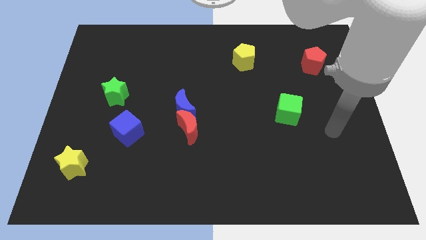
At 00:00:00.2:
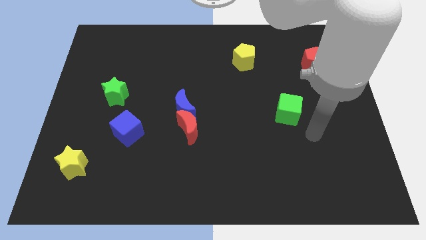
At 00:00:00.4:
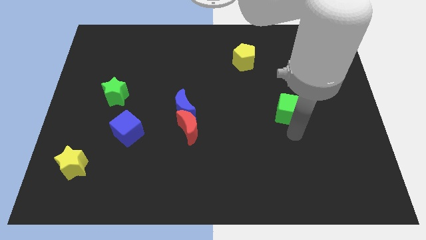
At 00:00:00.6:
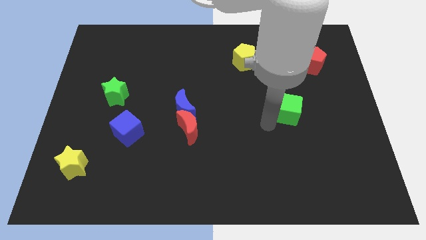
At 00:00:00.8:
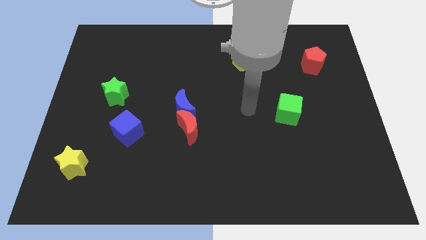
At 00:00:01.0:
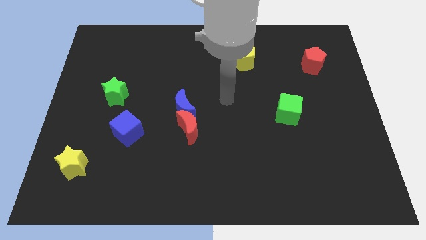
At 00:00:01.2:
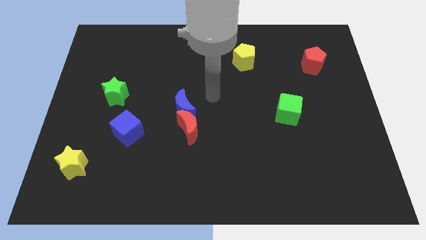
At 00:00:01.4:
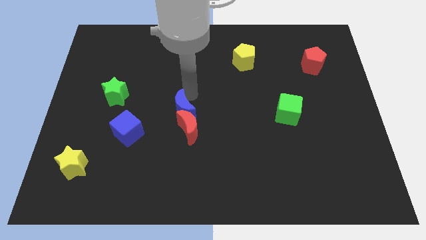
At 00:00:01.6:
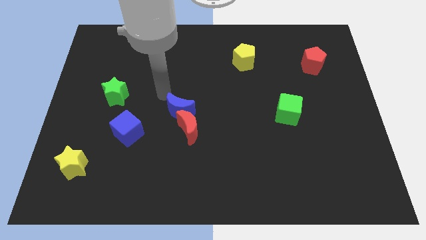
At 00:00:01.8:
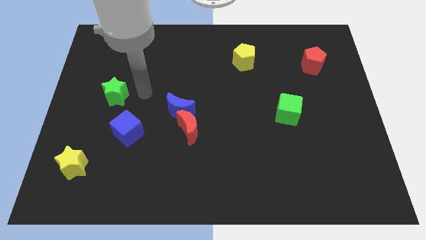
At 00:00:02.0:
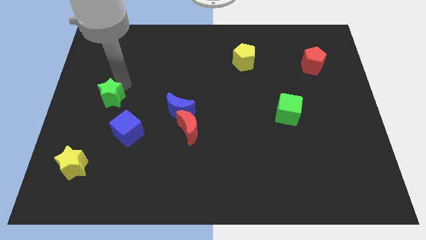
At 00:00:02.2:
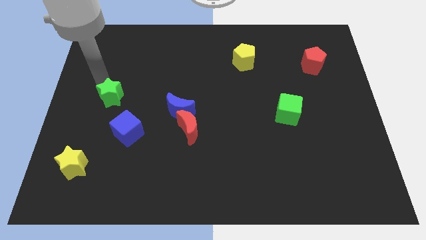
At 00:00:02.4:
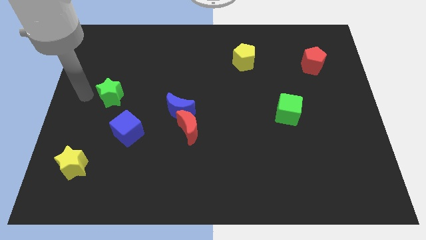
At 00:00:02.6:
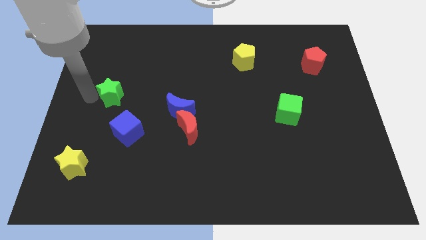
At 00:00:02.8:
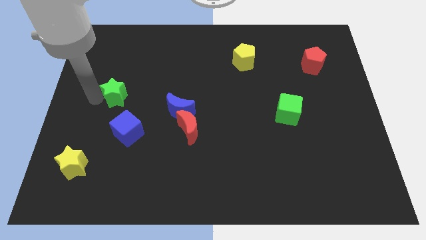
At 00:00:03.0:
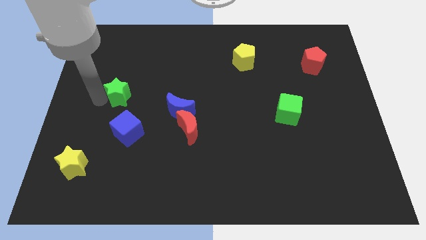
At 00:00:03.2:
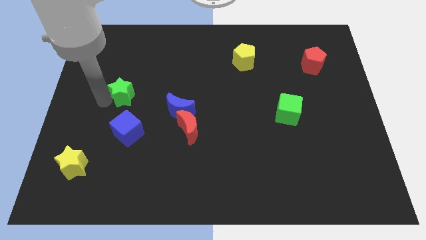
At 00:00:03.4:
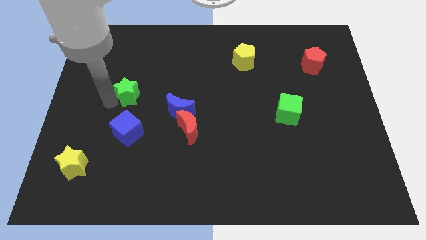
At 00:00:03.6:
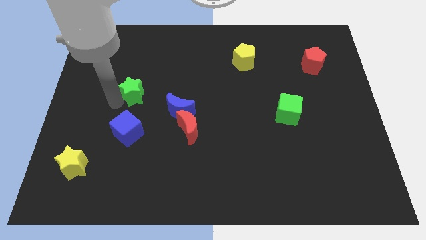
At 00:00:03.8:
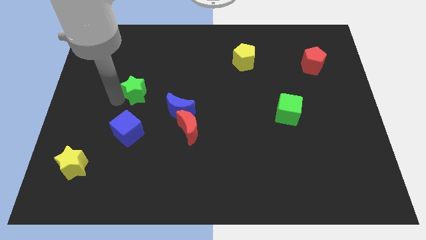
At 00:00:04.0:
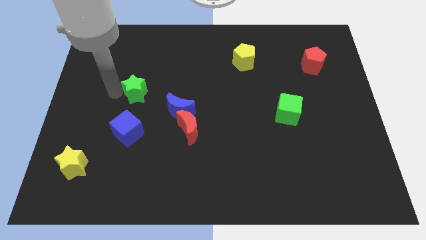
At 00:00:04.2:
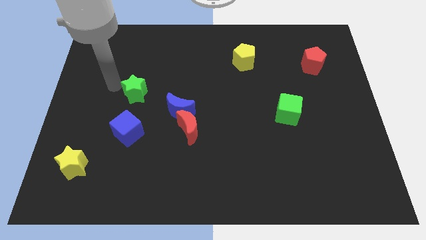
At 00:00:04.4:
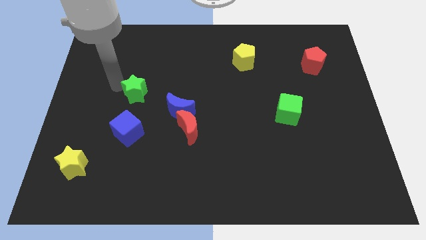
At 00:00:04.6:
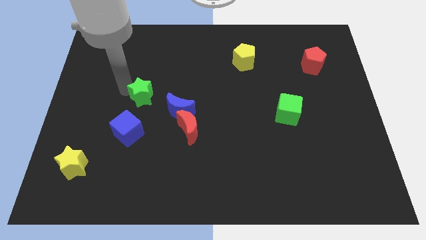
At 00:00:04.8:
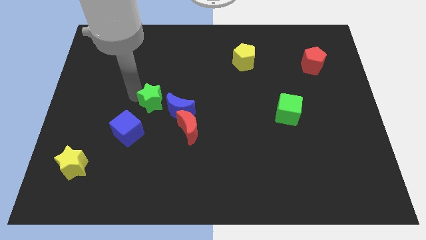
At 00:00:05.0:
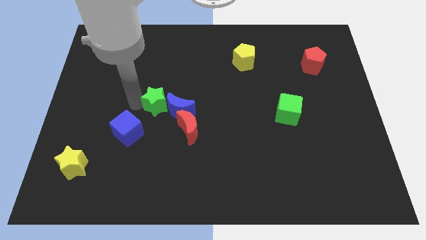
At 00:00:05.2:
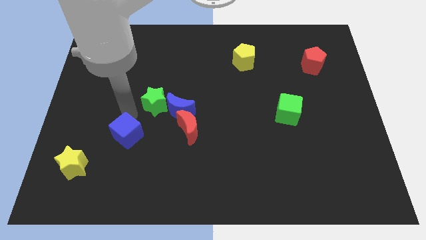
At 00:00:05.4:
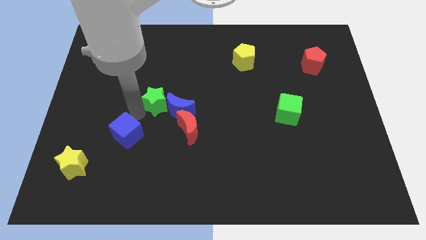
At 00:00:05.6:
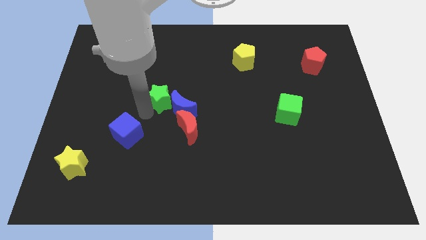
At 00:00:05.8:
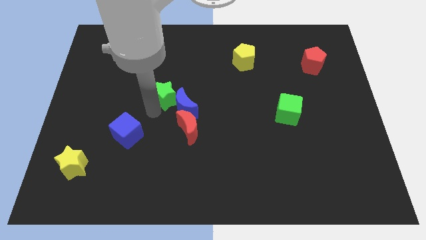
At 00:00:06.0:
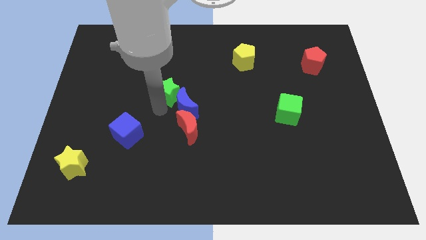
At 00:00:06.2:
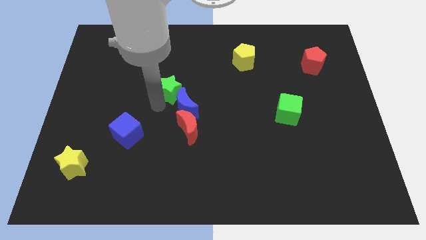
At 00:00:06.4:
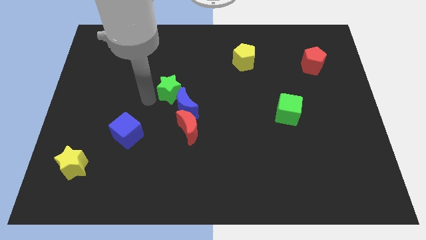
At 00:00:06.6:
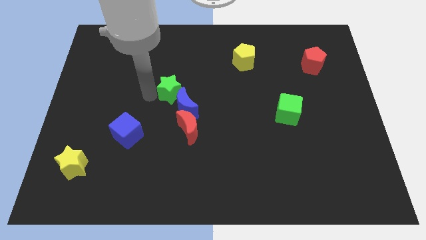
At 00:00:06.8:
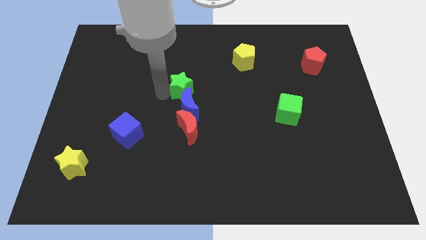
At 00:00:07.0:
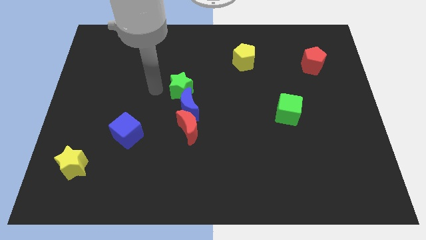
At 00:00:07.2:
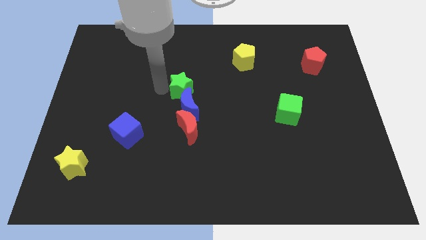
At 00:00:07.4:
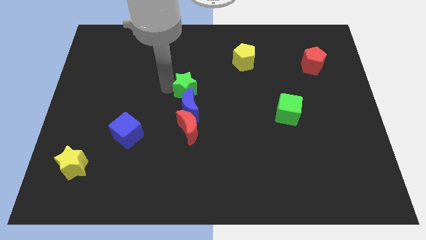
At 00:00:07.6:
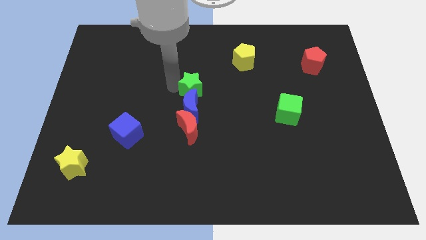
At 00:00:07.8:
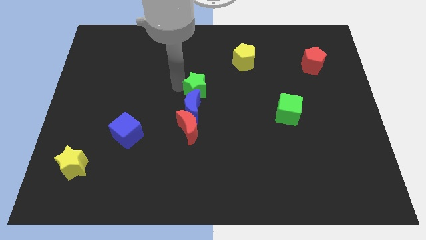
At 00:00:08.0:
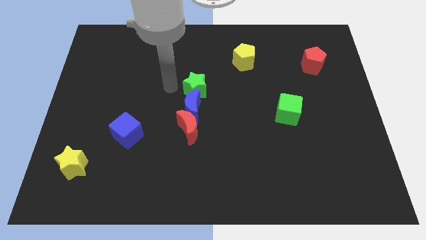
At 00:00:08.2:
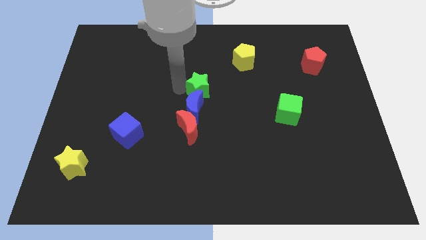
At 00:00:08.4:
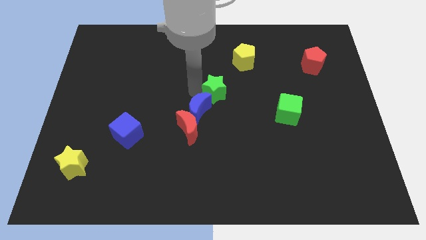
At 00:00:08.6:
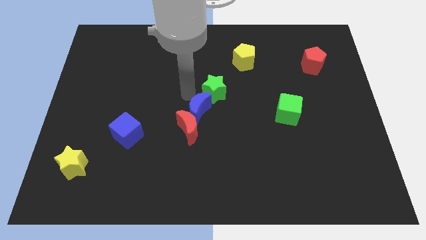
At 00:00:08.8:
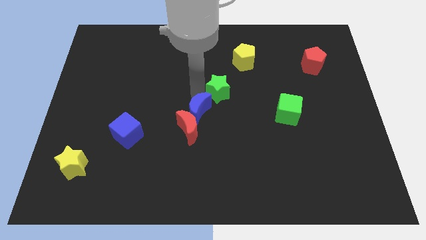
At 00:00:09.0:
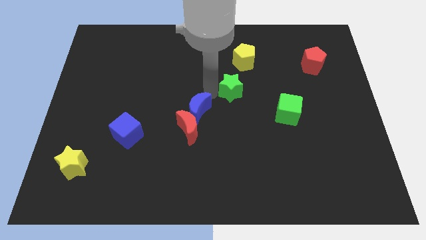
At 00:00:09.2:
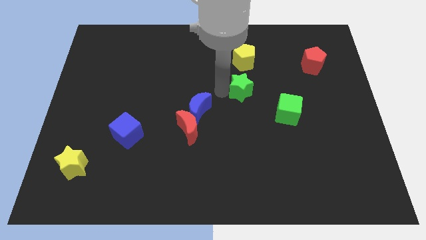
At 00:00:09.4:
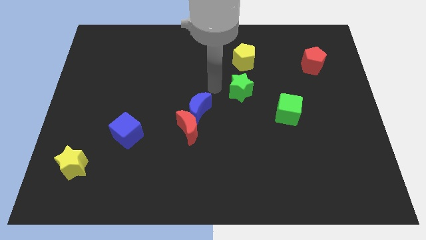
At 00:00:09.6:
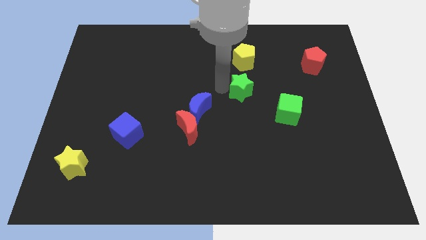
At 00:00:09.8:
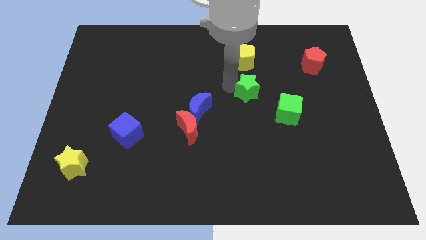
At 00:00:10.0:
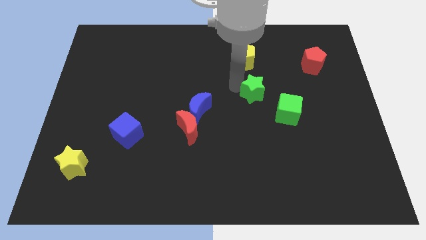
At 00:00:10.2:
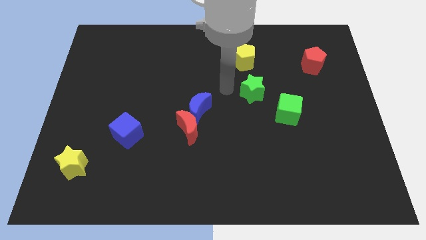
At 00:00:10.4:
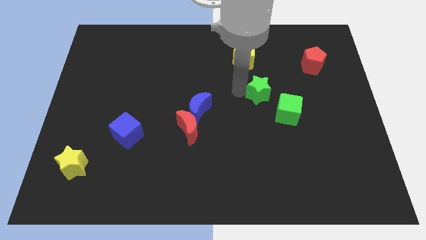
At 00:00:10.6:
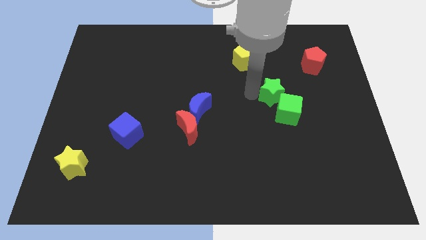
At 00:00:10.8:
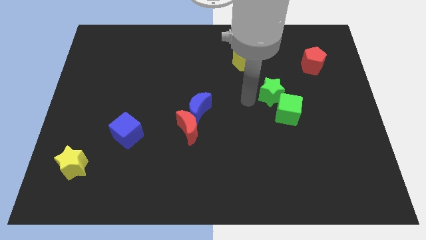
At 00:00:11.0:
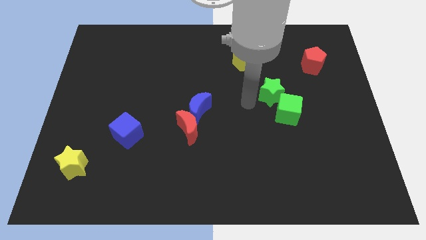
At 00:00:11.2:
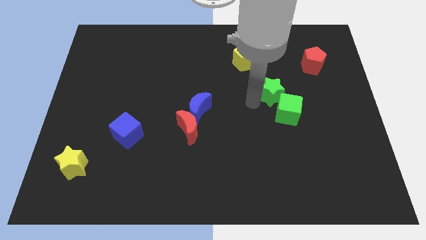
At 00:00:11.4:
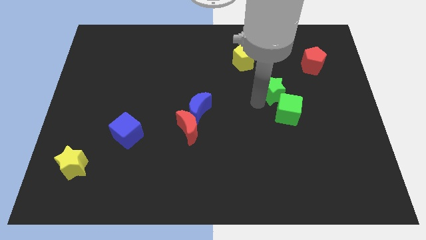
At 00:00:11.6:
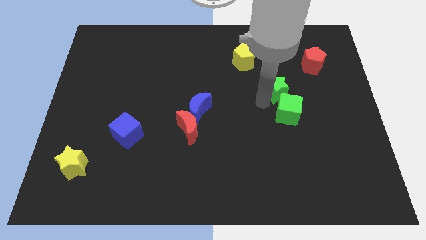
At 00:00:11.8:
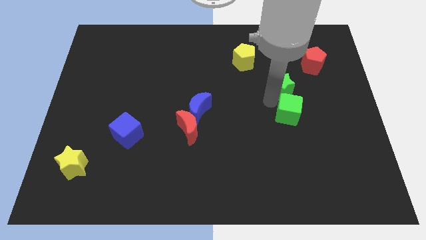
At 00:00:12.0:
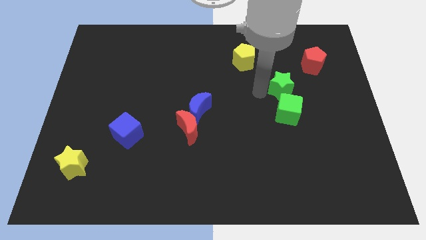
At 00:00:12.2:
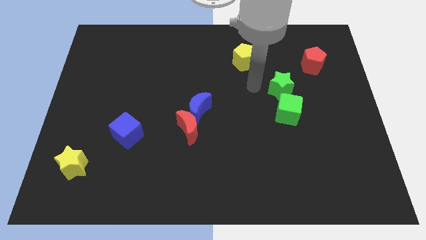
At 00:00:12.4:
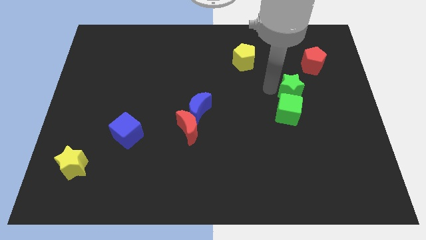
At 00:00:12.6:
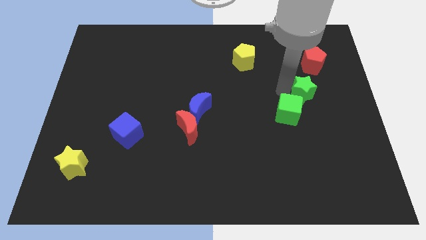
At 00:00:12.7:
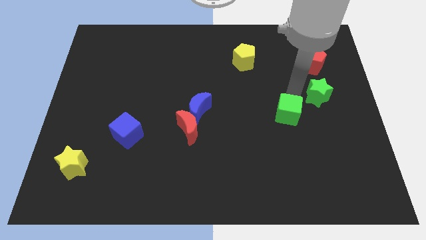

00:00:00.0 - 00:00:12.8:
put the green star to the right side of the board
